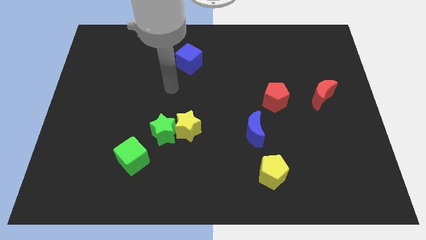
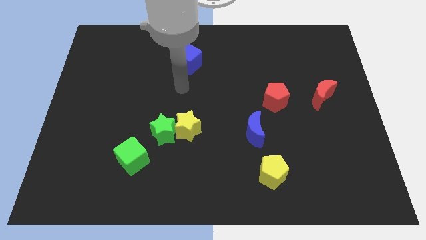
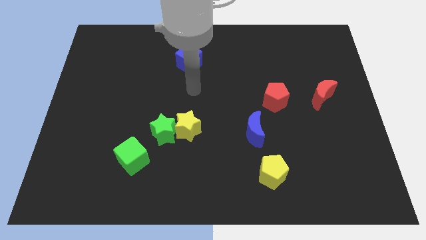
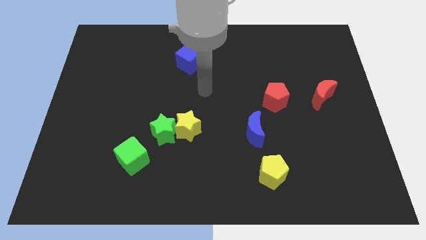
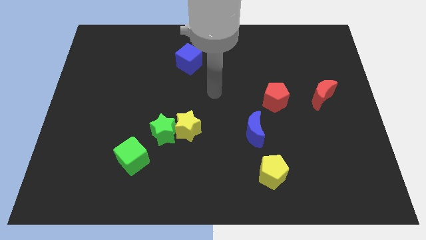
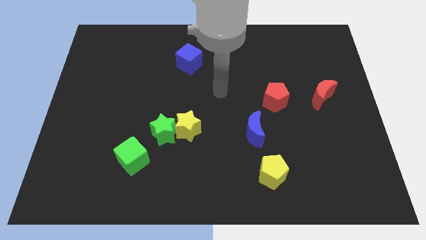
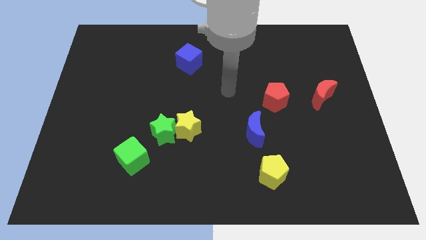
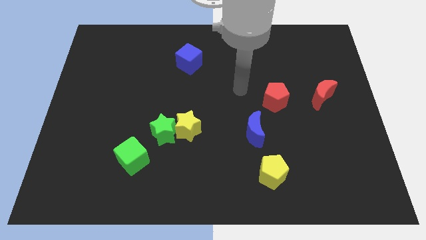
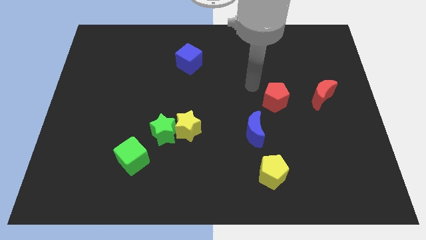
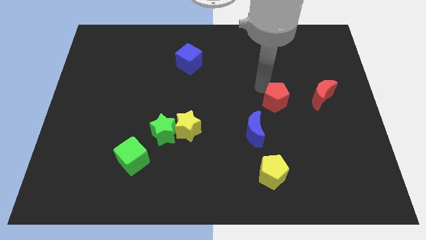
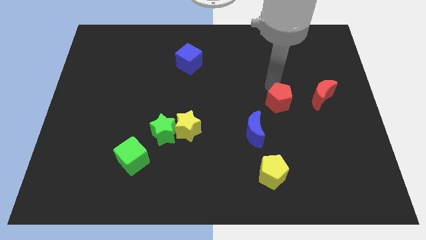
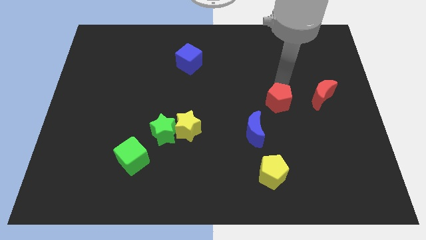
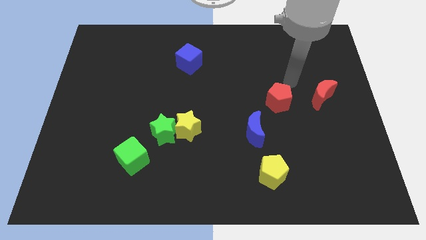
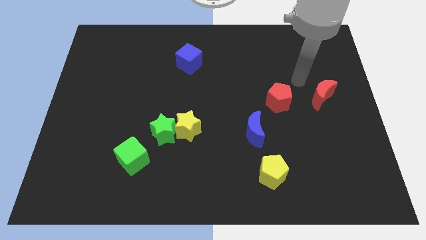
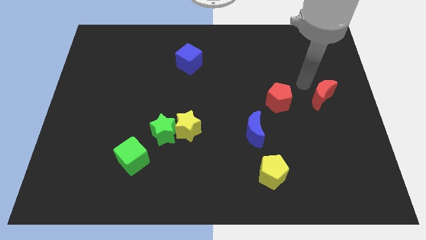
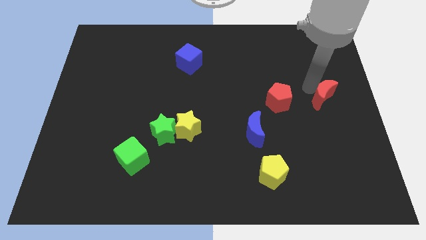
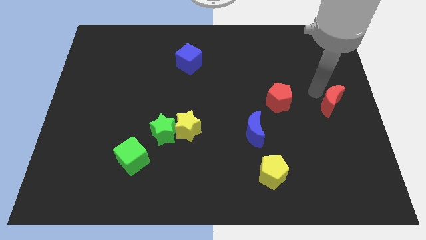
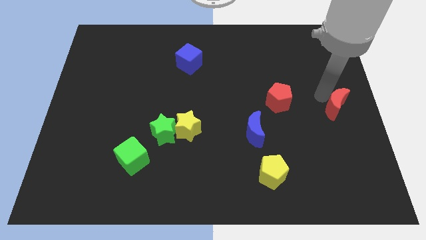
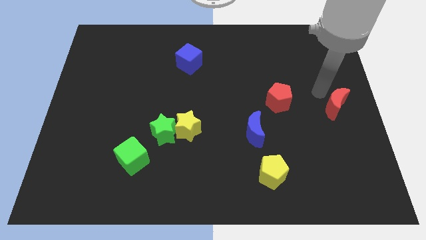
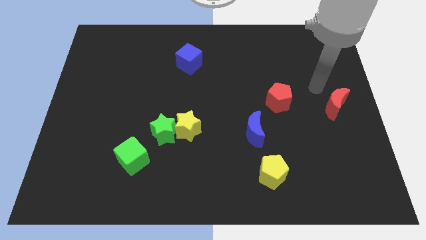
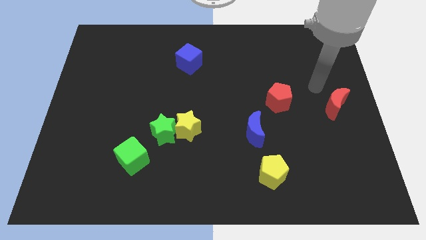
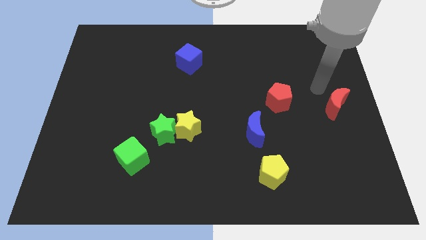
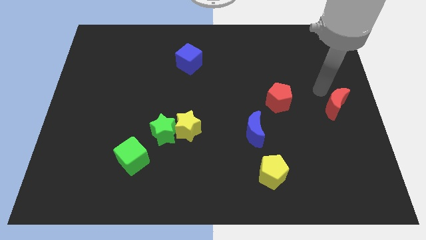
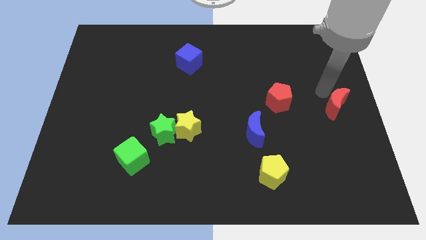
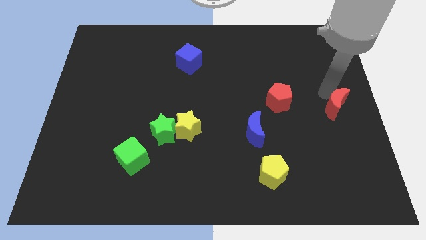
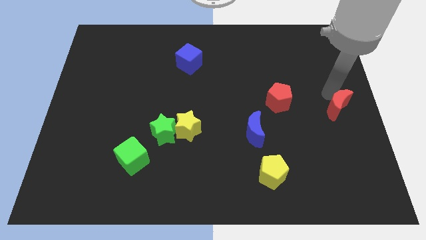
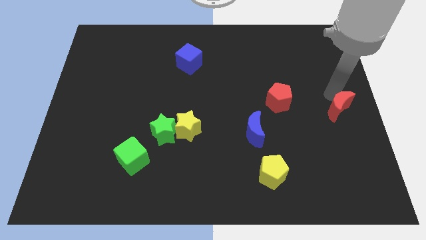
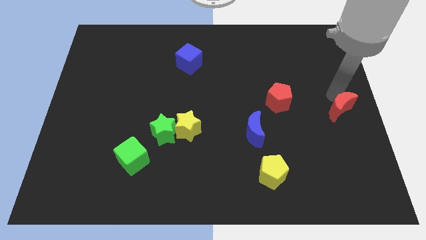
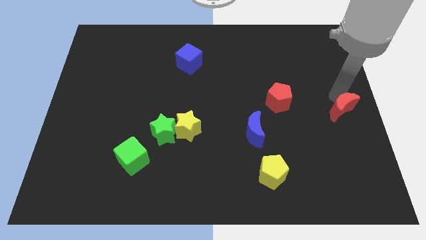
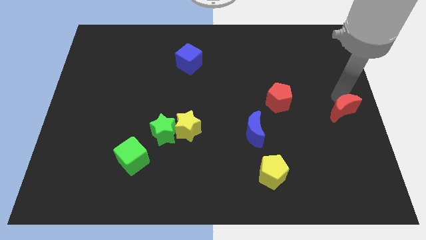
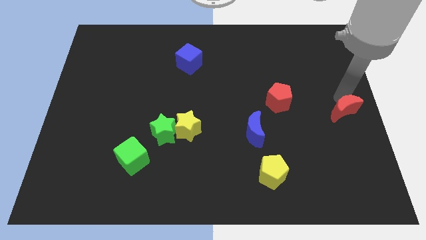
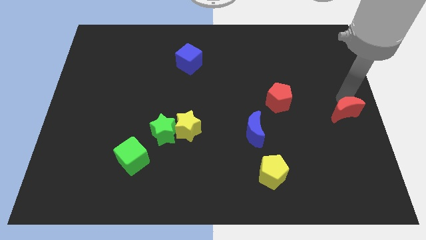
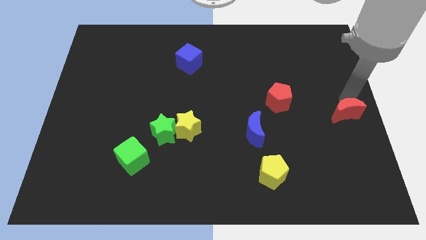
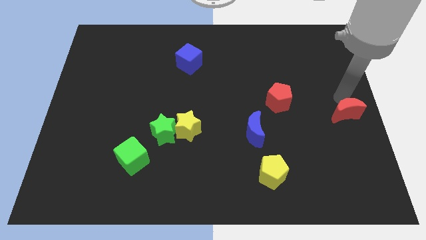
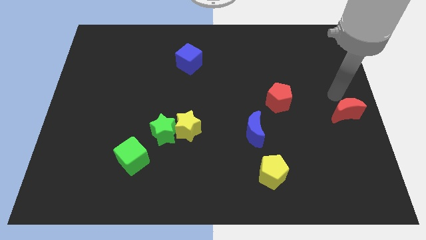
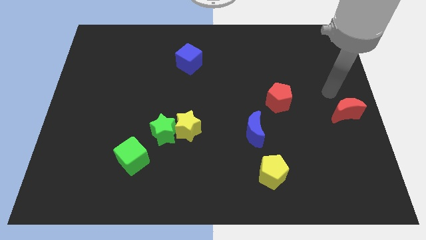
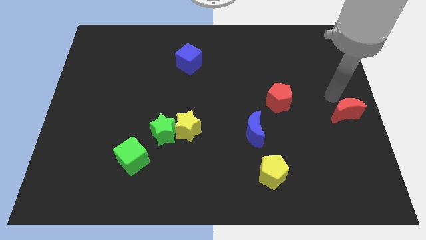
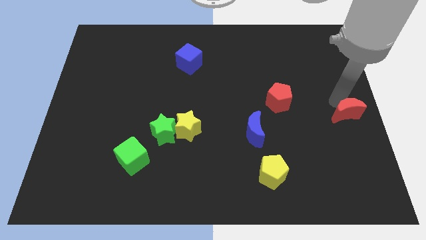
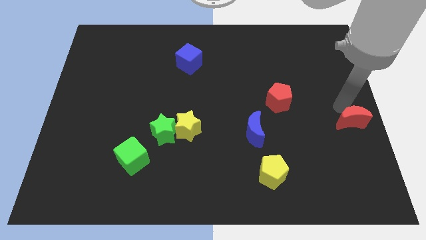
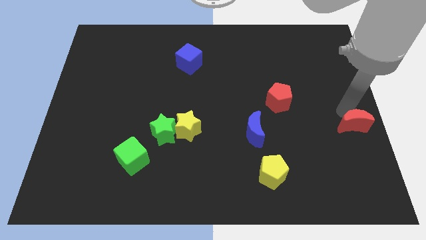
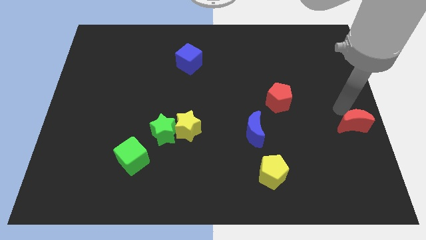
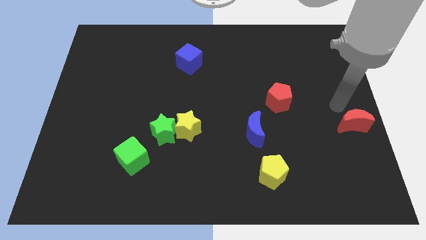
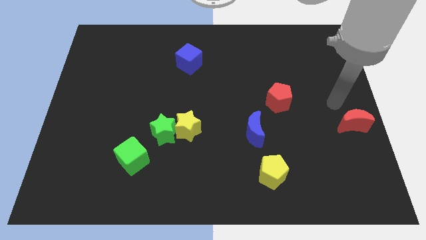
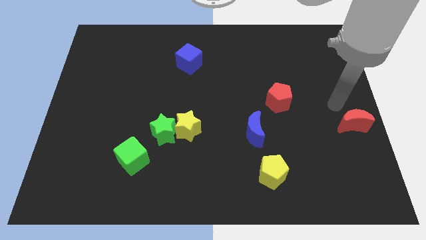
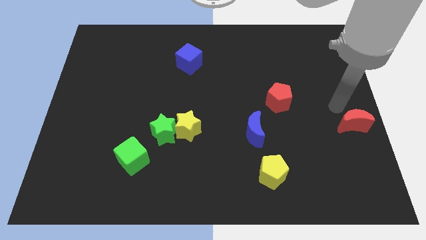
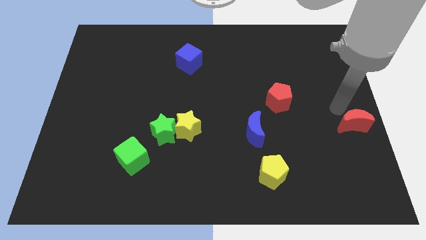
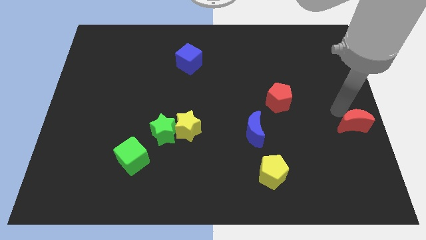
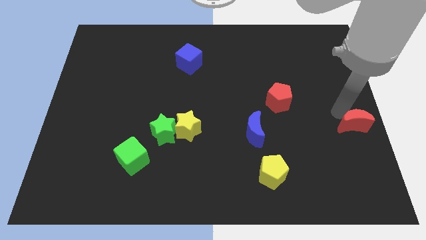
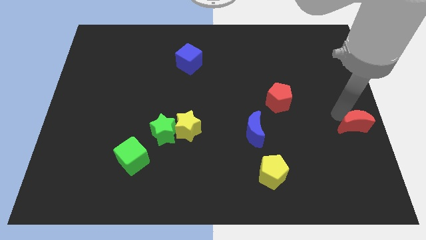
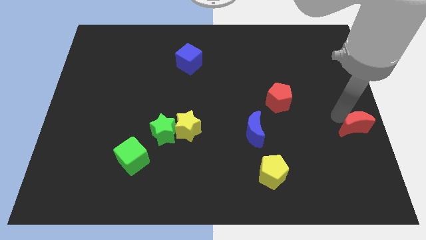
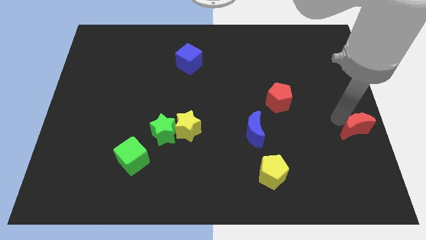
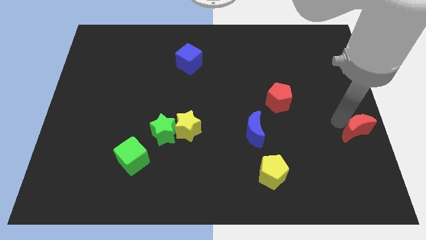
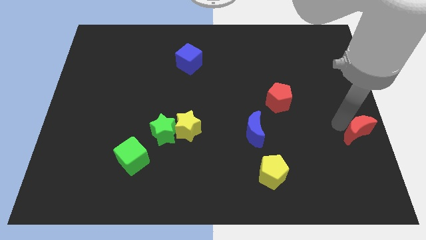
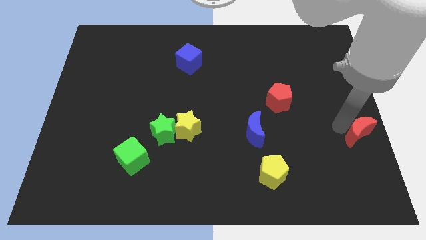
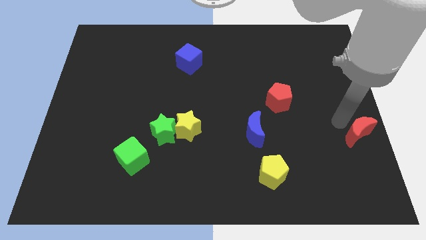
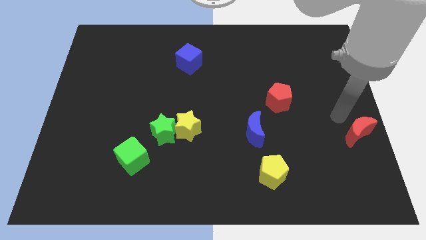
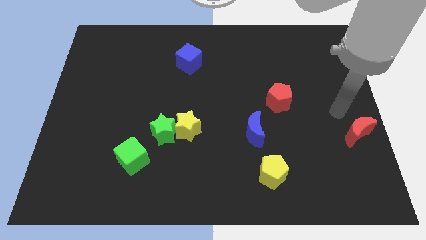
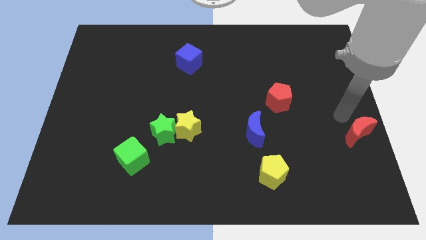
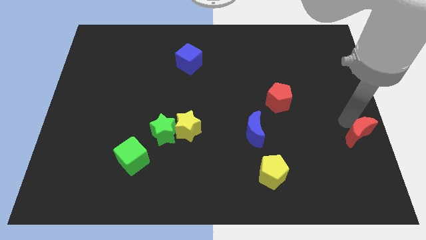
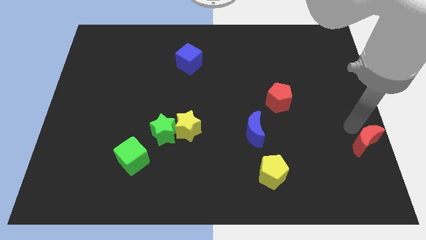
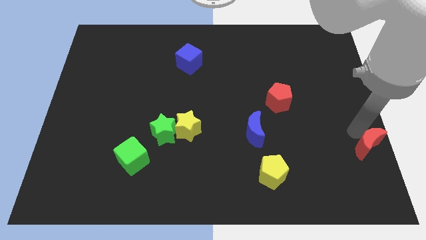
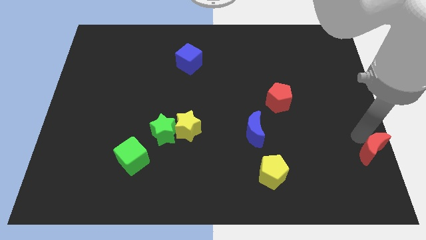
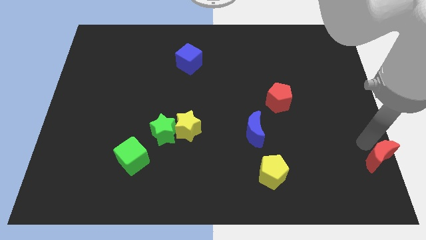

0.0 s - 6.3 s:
put the red moon to the bottom right corner
